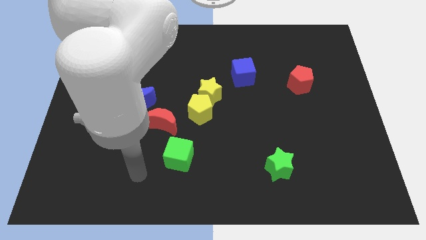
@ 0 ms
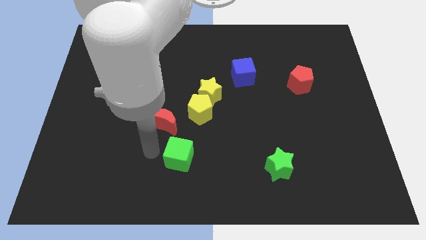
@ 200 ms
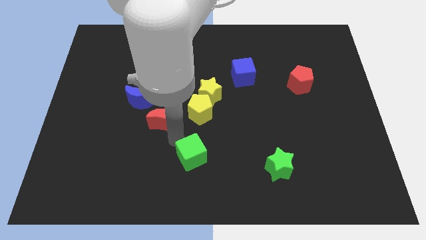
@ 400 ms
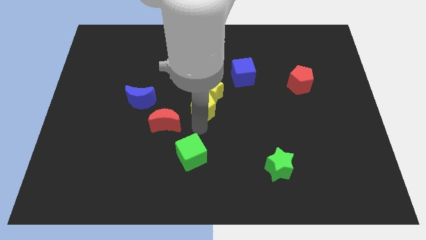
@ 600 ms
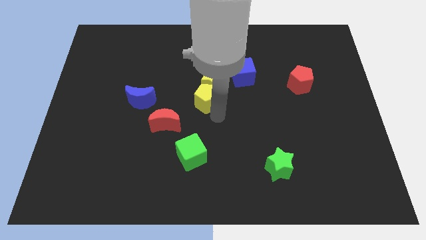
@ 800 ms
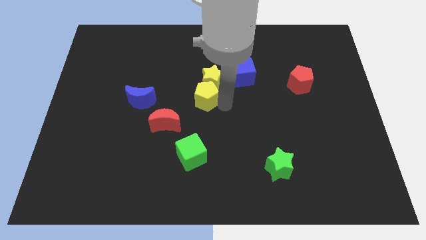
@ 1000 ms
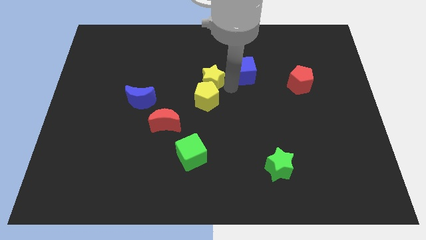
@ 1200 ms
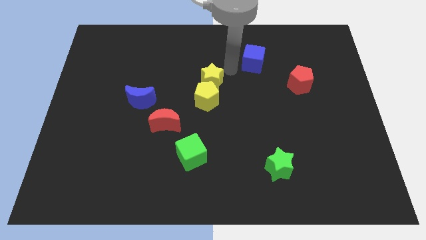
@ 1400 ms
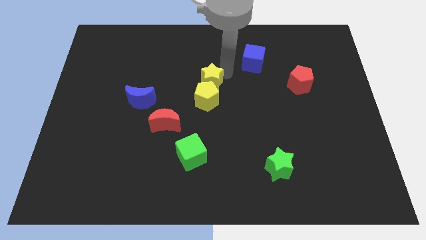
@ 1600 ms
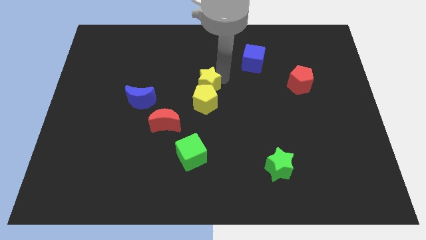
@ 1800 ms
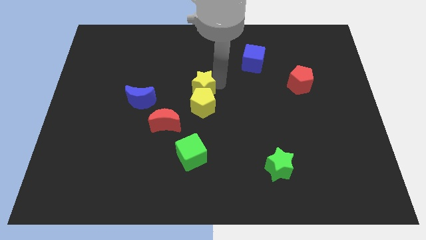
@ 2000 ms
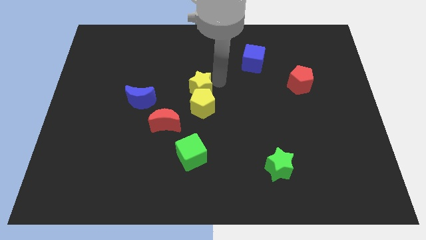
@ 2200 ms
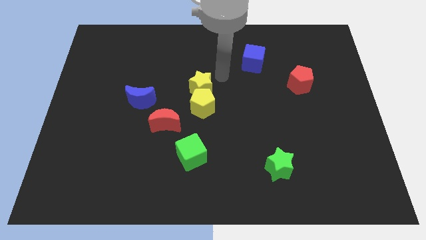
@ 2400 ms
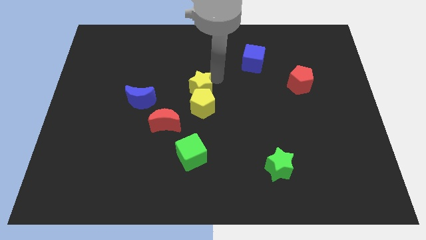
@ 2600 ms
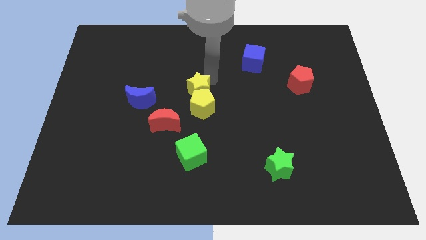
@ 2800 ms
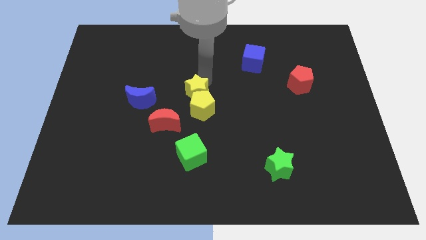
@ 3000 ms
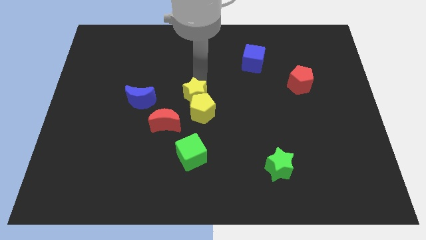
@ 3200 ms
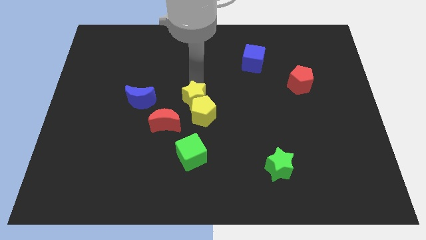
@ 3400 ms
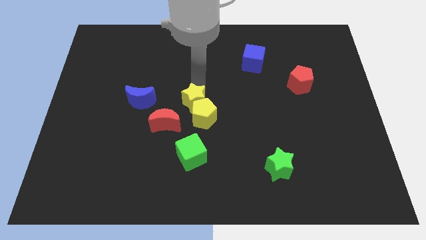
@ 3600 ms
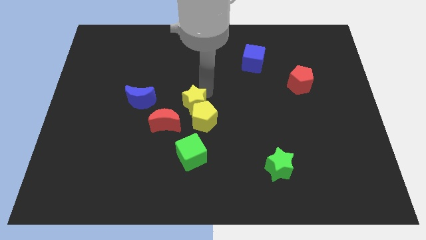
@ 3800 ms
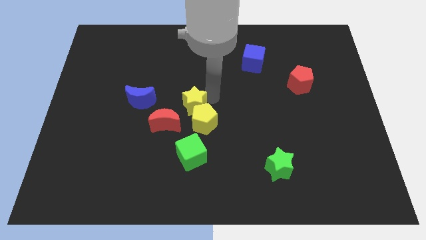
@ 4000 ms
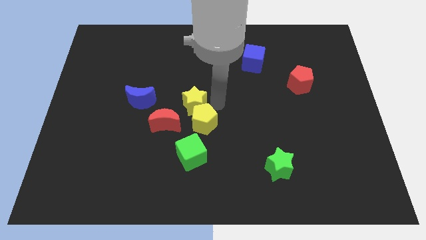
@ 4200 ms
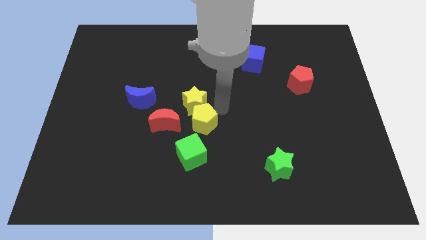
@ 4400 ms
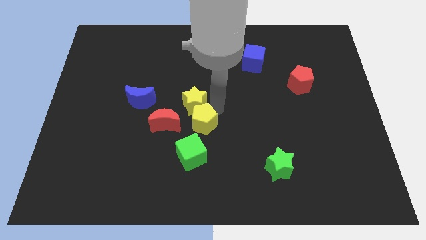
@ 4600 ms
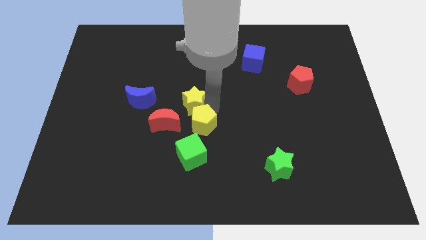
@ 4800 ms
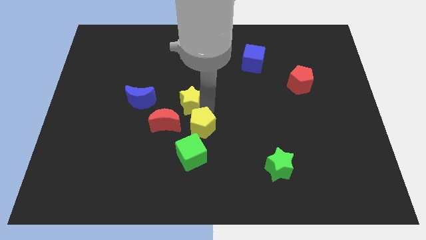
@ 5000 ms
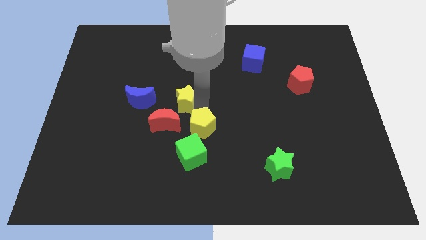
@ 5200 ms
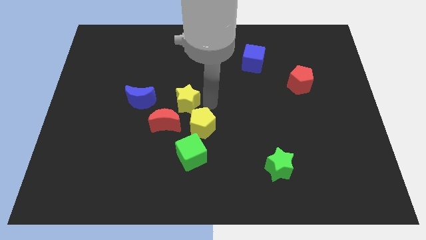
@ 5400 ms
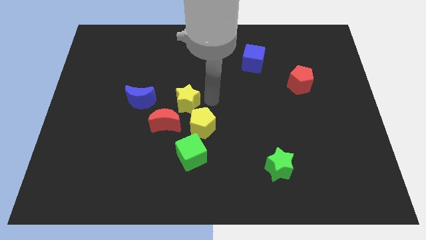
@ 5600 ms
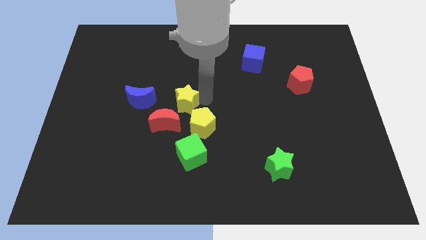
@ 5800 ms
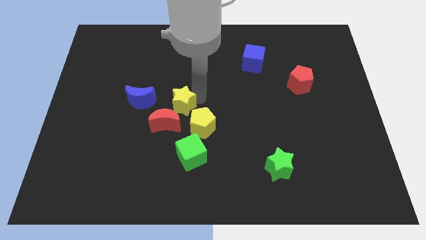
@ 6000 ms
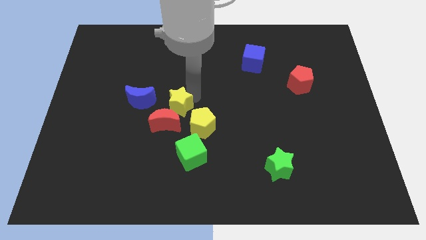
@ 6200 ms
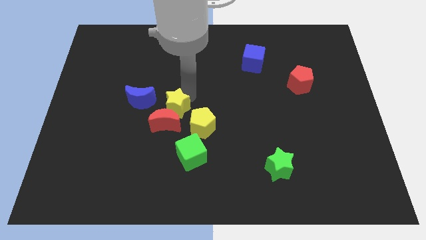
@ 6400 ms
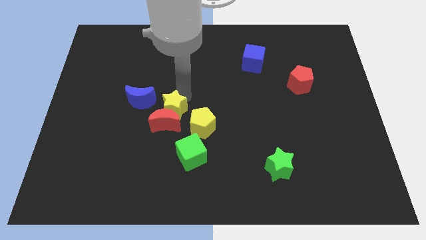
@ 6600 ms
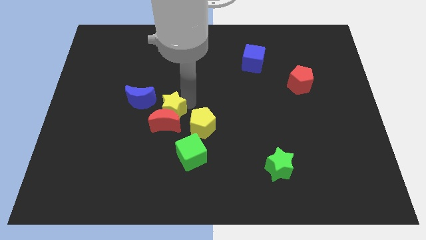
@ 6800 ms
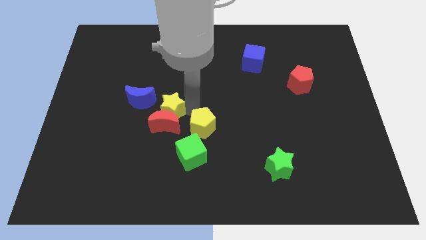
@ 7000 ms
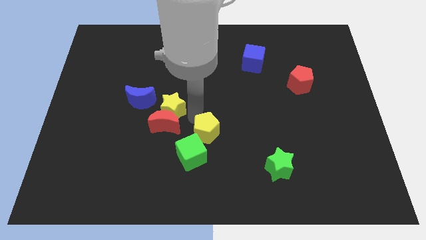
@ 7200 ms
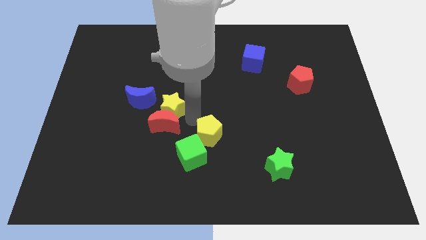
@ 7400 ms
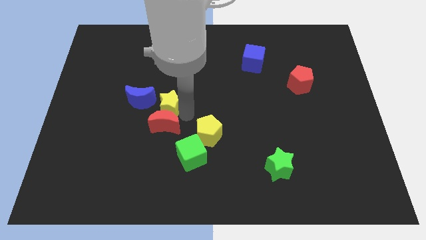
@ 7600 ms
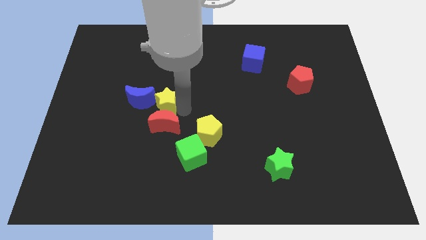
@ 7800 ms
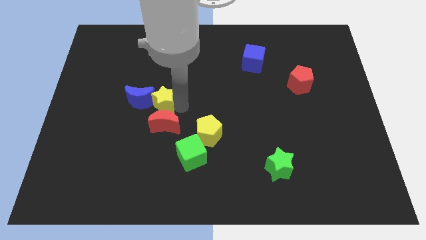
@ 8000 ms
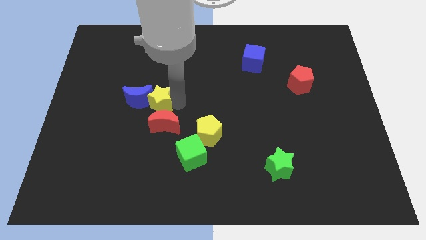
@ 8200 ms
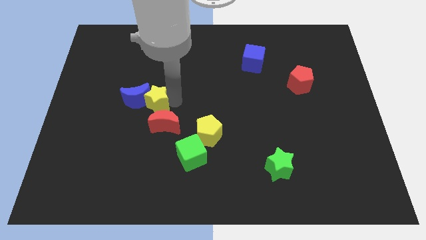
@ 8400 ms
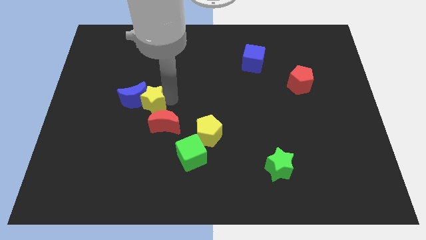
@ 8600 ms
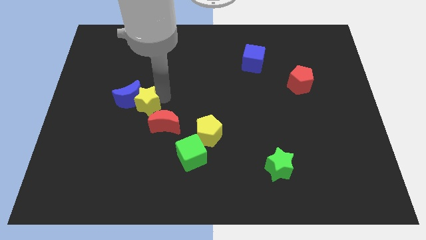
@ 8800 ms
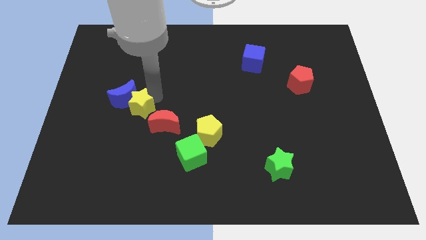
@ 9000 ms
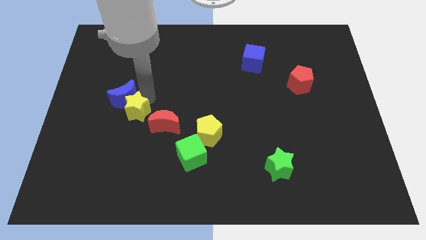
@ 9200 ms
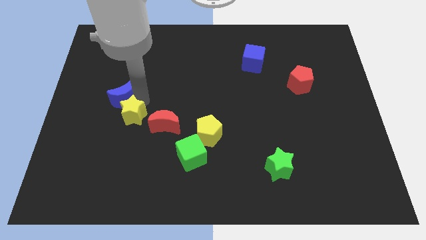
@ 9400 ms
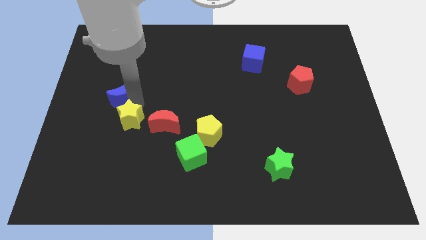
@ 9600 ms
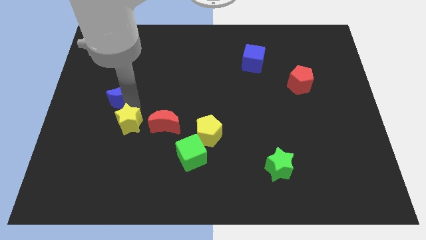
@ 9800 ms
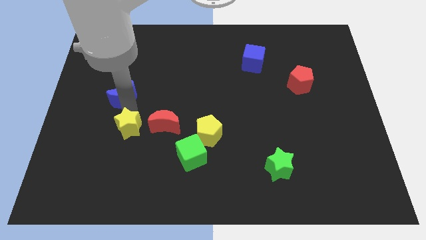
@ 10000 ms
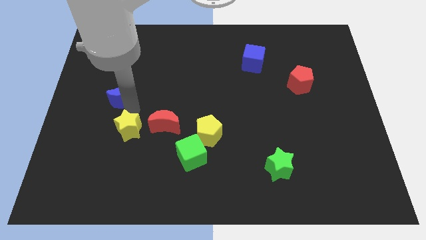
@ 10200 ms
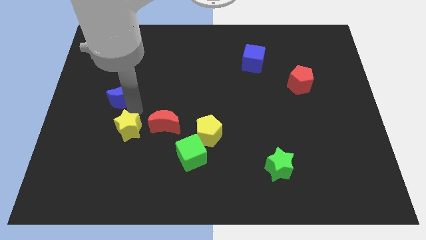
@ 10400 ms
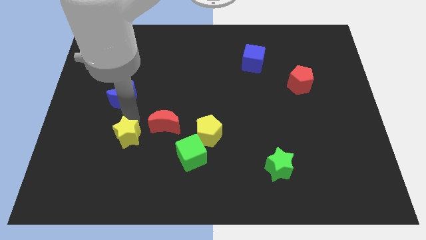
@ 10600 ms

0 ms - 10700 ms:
push the yellow star diagonally downwards and left

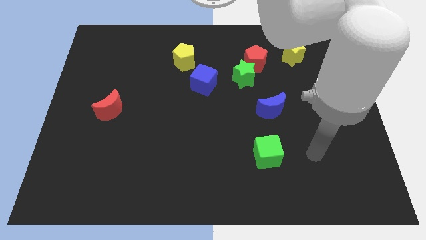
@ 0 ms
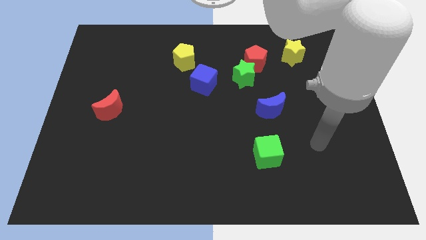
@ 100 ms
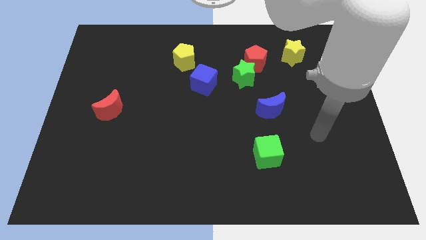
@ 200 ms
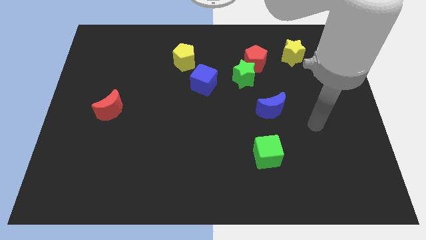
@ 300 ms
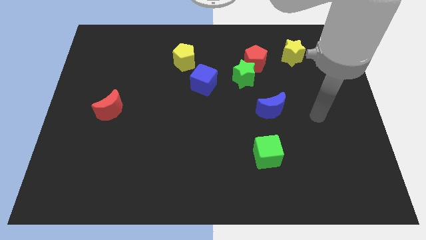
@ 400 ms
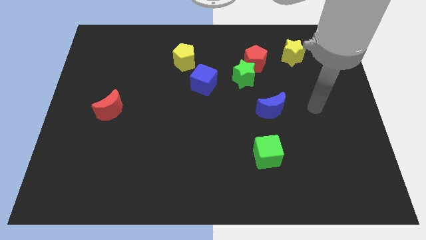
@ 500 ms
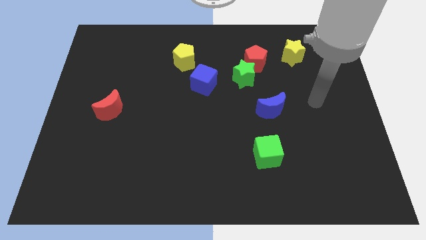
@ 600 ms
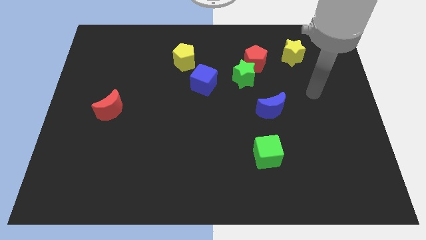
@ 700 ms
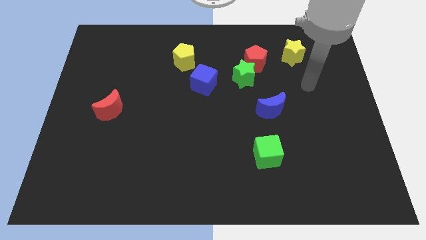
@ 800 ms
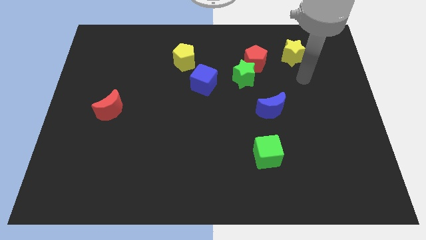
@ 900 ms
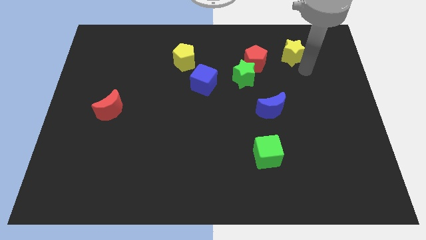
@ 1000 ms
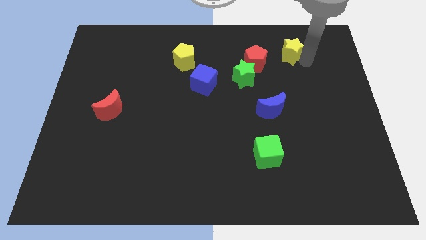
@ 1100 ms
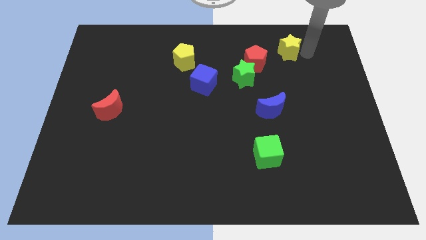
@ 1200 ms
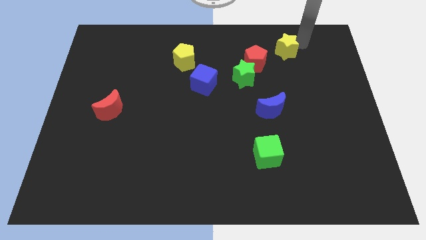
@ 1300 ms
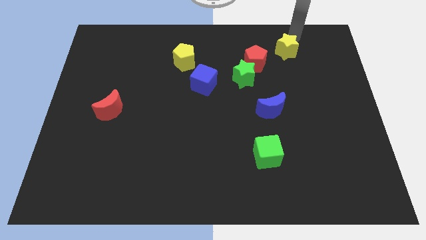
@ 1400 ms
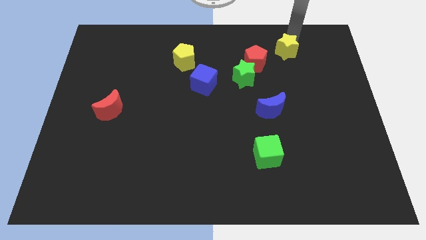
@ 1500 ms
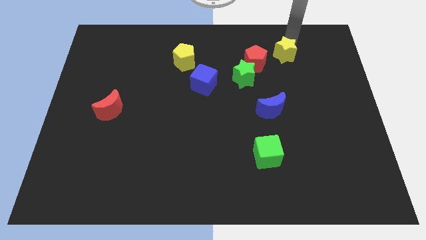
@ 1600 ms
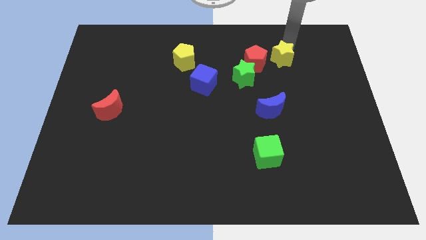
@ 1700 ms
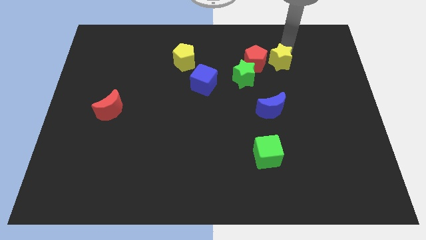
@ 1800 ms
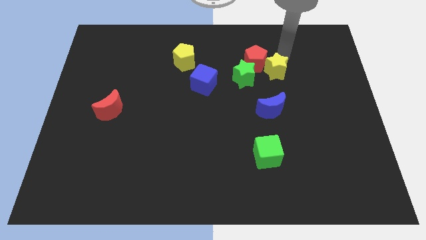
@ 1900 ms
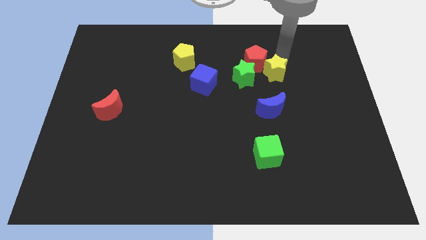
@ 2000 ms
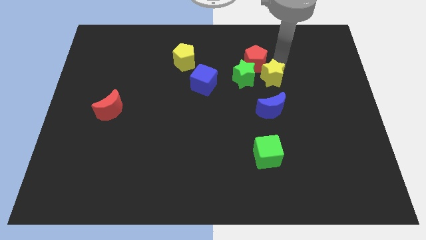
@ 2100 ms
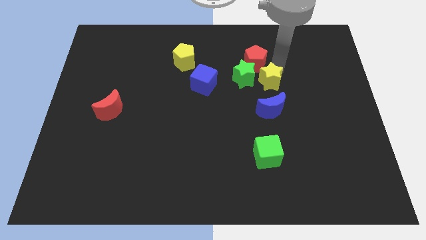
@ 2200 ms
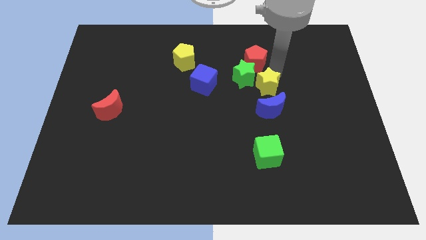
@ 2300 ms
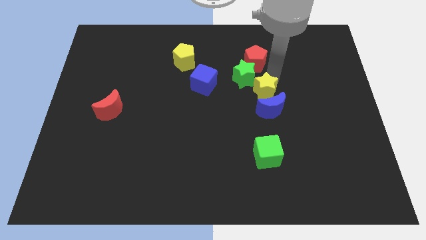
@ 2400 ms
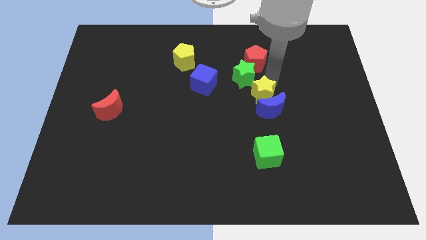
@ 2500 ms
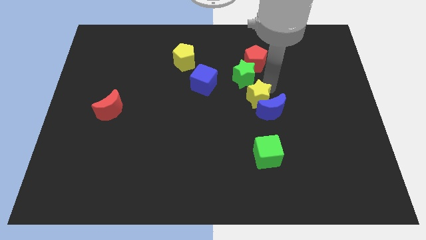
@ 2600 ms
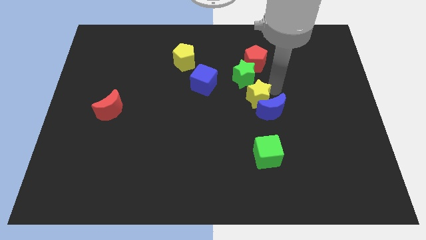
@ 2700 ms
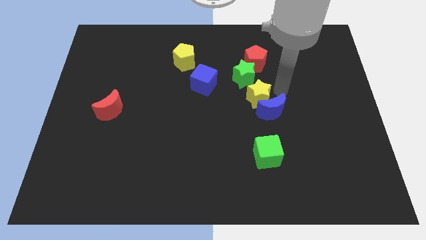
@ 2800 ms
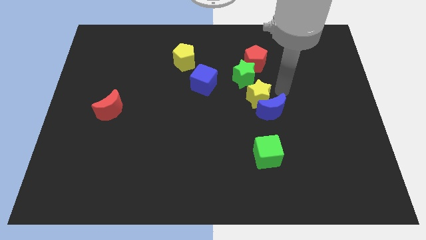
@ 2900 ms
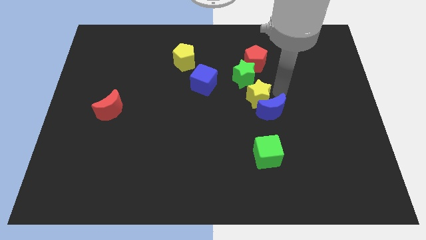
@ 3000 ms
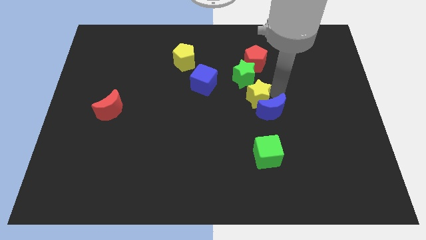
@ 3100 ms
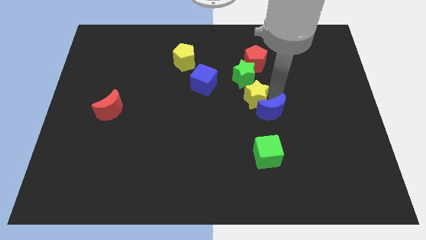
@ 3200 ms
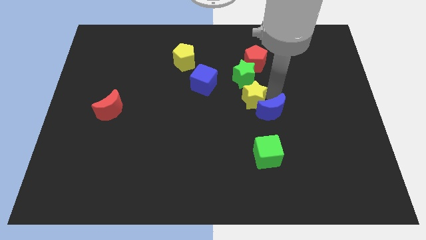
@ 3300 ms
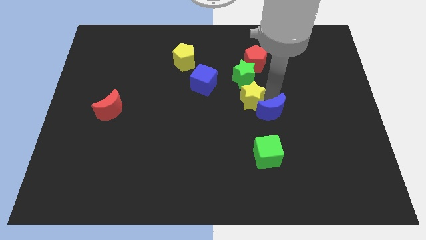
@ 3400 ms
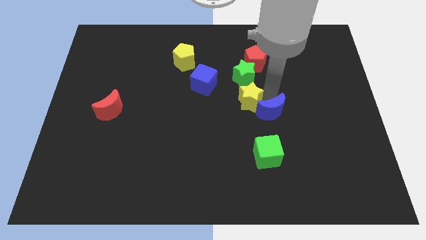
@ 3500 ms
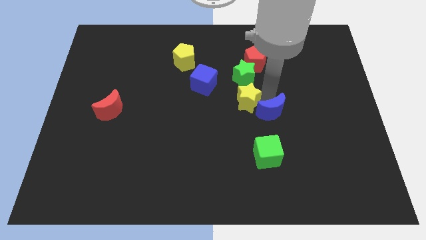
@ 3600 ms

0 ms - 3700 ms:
push the yellow star diagonally down and left
